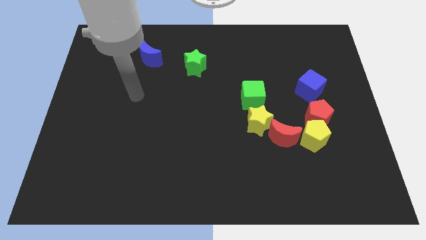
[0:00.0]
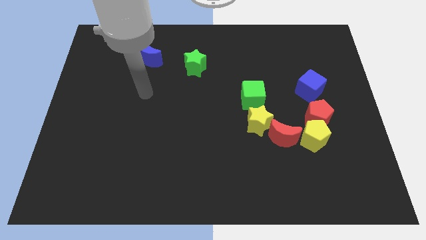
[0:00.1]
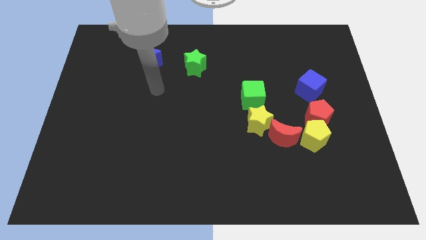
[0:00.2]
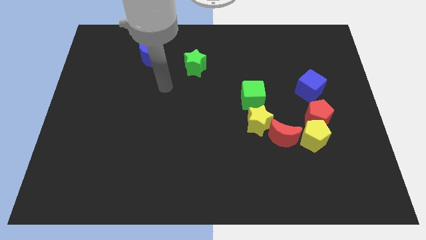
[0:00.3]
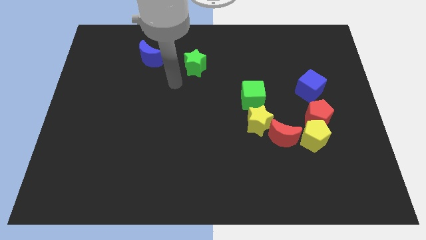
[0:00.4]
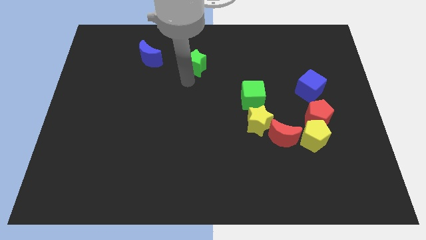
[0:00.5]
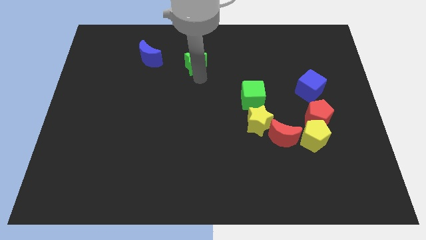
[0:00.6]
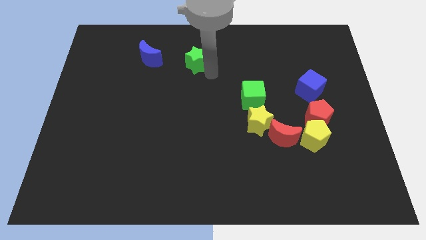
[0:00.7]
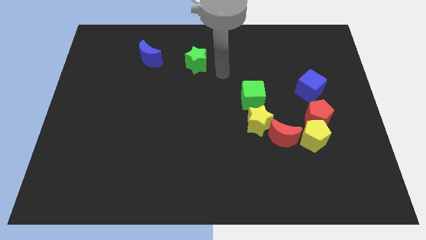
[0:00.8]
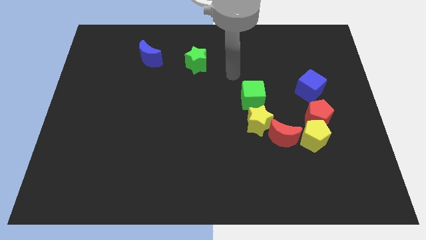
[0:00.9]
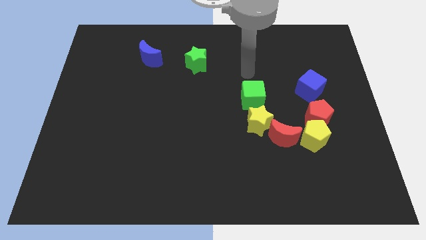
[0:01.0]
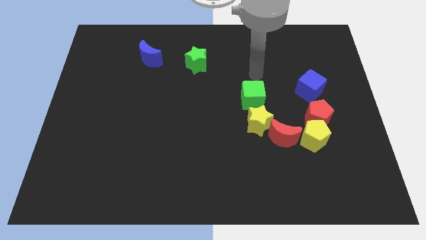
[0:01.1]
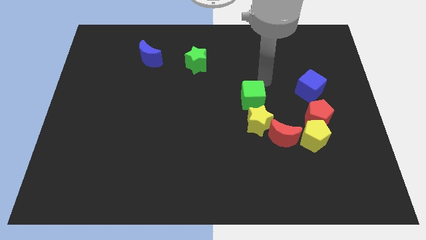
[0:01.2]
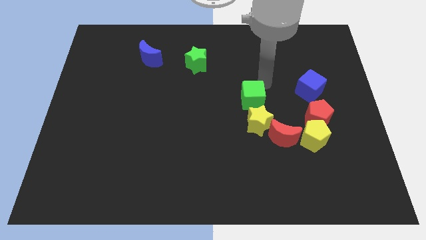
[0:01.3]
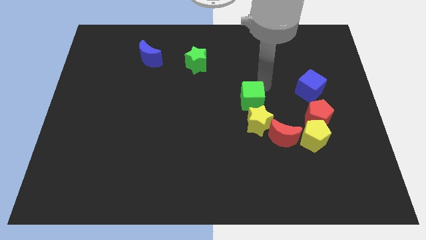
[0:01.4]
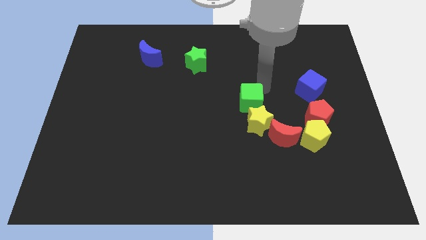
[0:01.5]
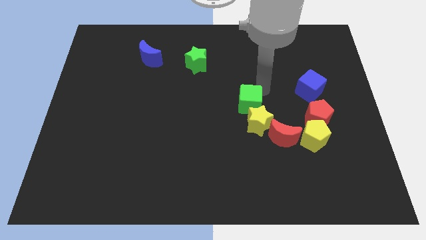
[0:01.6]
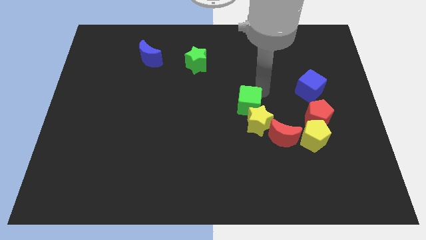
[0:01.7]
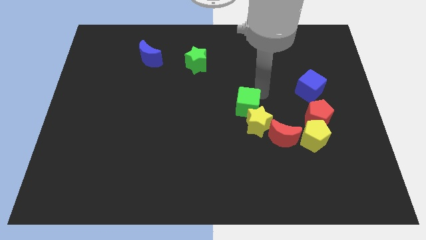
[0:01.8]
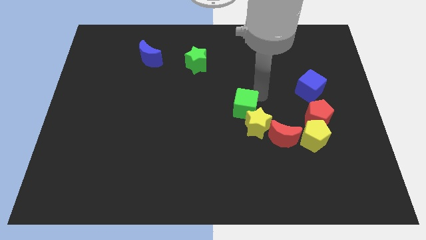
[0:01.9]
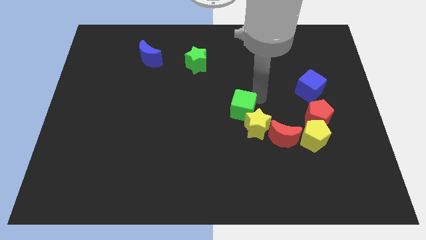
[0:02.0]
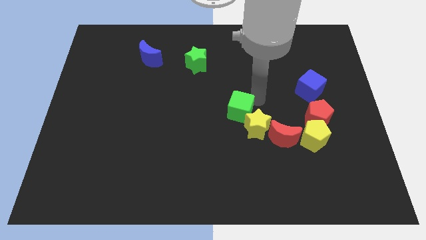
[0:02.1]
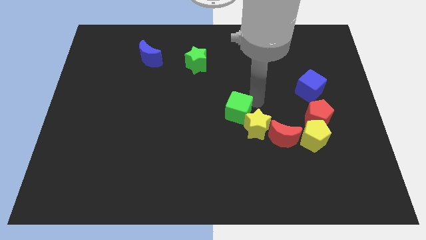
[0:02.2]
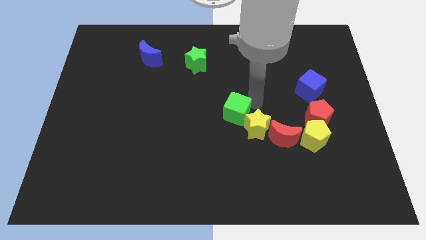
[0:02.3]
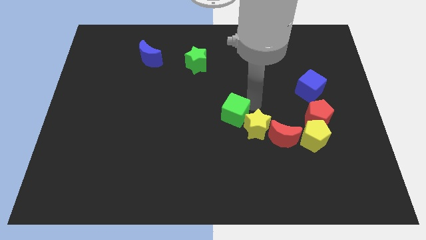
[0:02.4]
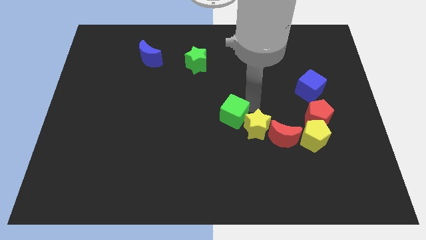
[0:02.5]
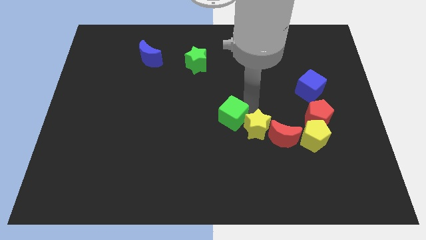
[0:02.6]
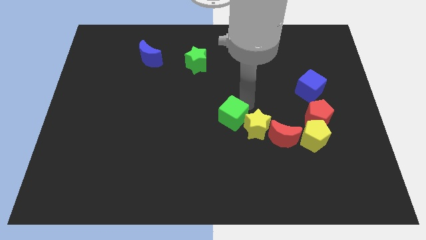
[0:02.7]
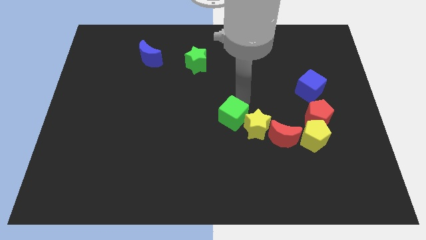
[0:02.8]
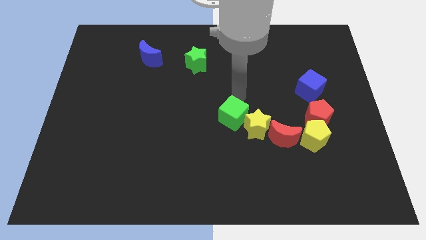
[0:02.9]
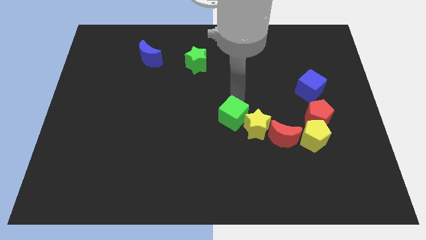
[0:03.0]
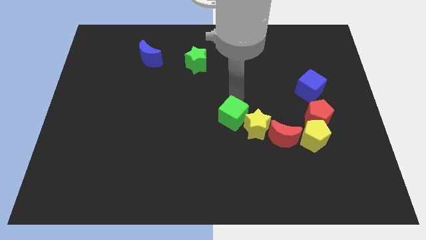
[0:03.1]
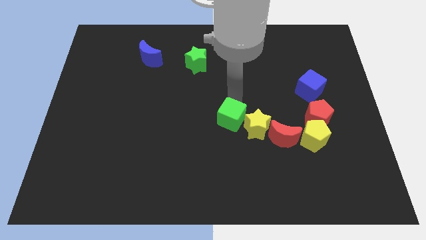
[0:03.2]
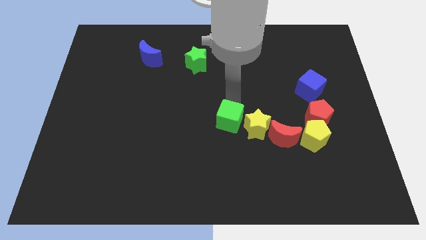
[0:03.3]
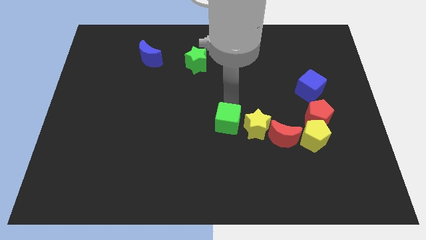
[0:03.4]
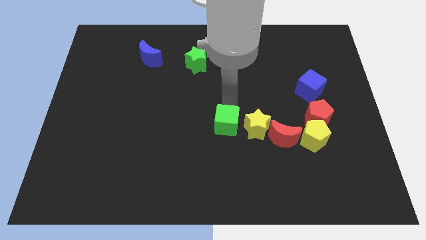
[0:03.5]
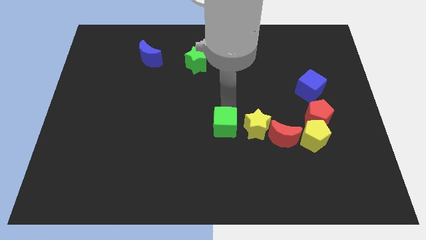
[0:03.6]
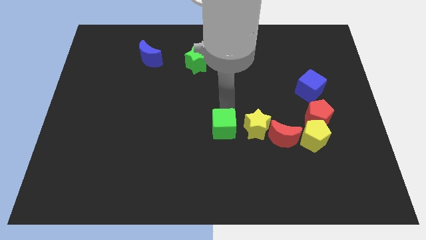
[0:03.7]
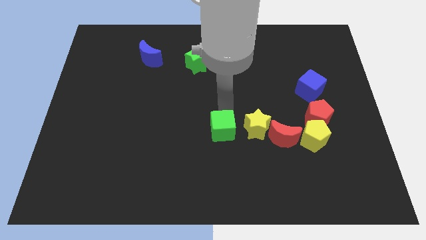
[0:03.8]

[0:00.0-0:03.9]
move the green cube a bit downwards

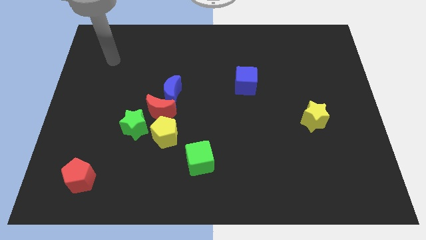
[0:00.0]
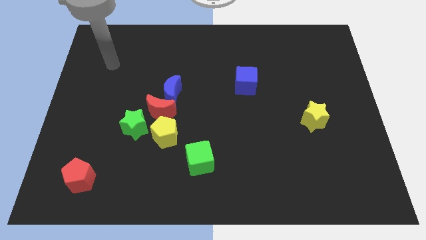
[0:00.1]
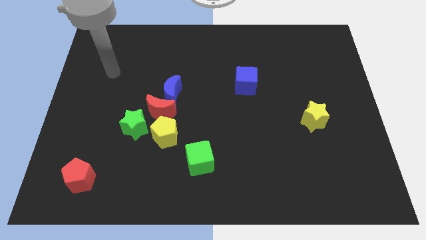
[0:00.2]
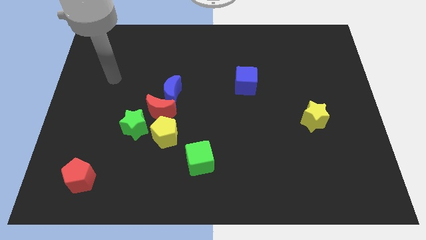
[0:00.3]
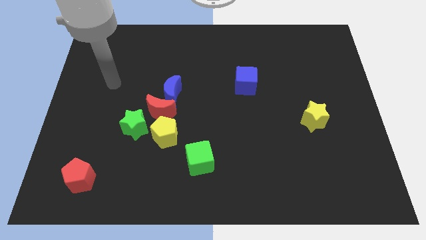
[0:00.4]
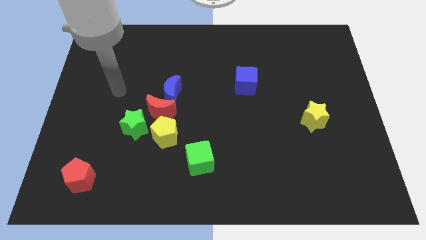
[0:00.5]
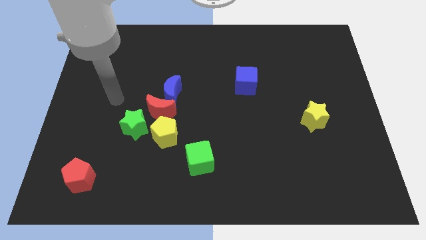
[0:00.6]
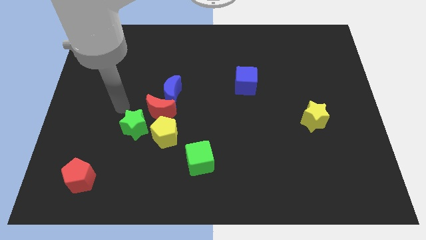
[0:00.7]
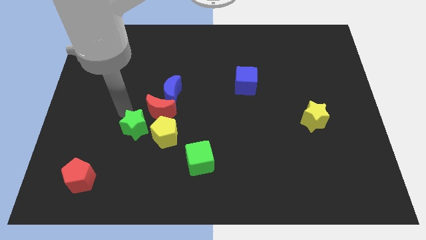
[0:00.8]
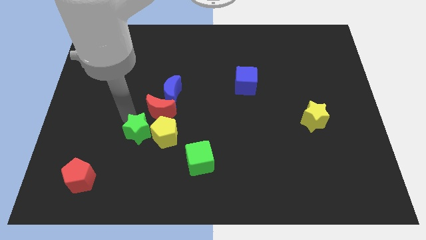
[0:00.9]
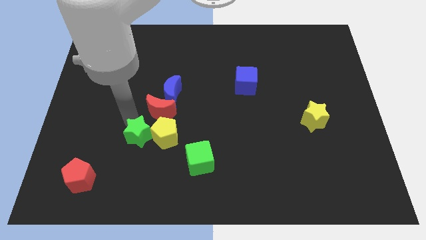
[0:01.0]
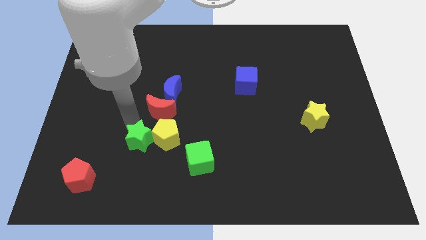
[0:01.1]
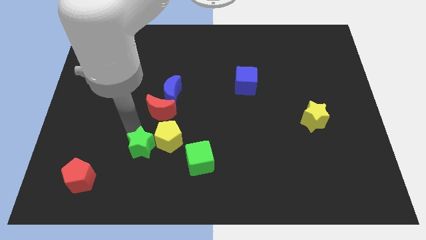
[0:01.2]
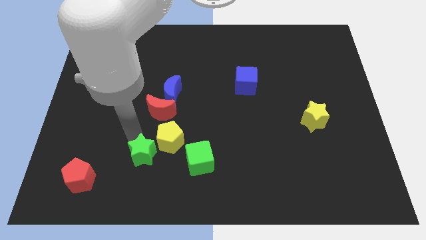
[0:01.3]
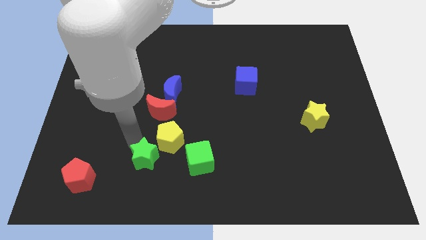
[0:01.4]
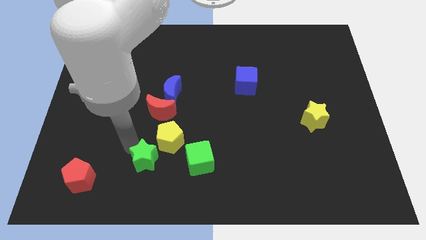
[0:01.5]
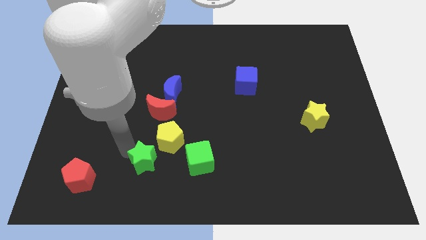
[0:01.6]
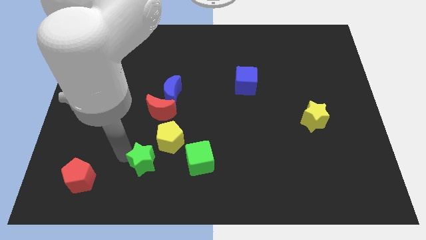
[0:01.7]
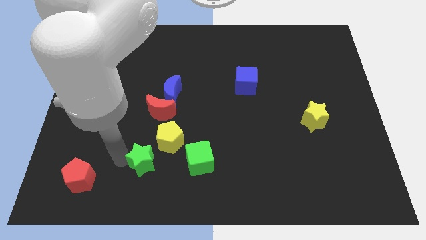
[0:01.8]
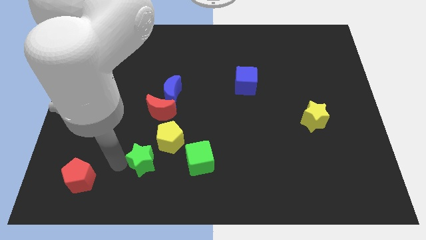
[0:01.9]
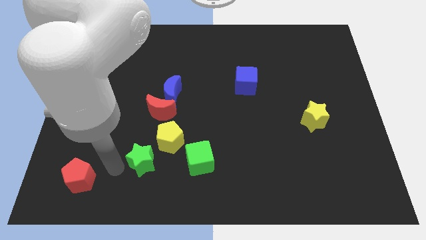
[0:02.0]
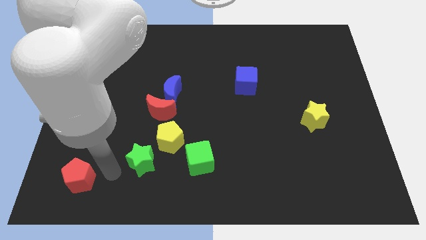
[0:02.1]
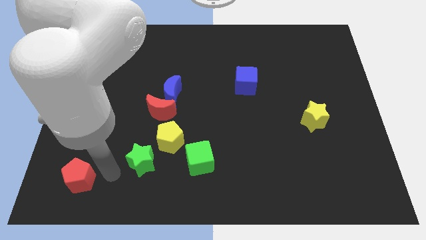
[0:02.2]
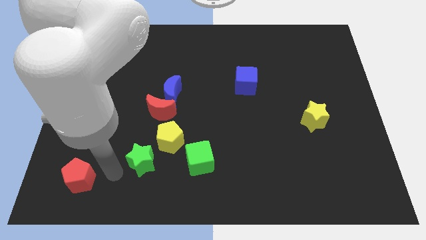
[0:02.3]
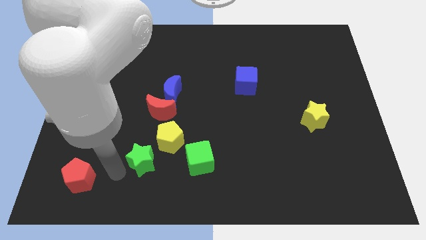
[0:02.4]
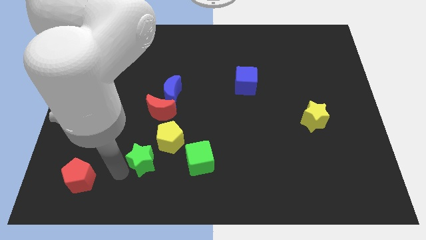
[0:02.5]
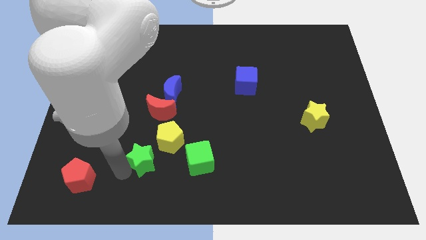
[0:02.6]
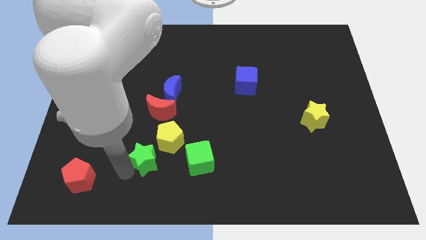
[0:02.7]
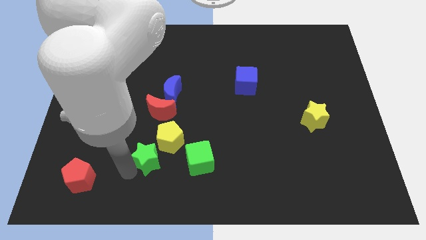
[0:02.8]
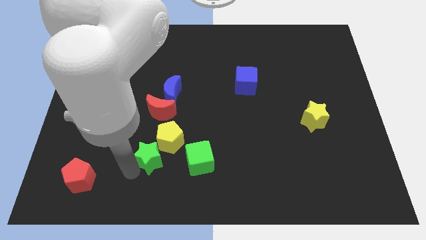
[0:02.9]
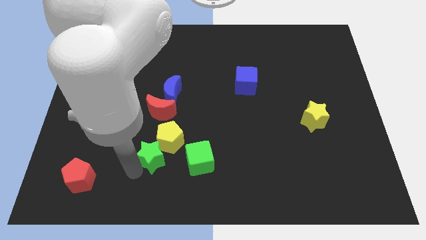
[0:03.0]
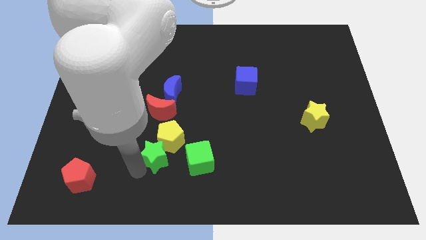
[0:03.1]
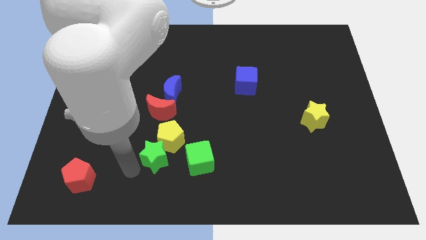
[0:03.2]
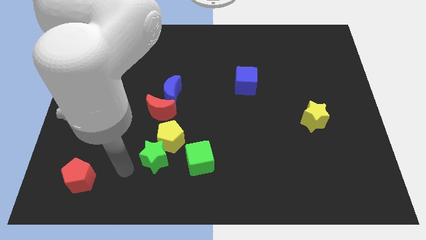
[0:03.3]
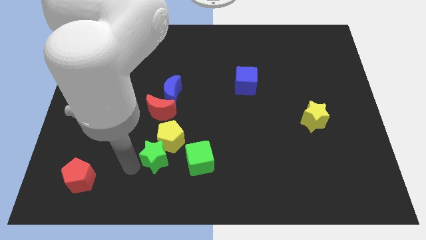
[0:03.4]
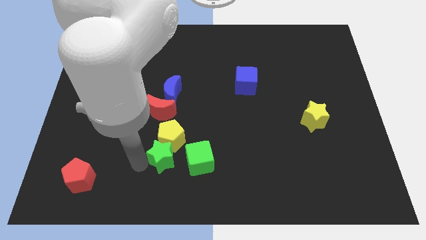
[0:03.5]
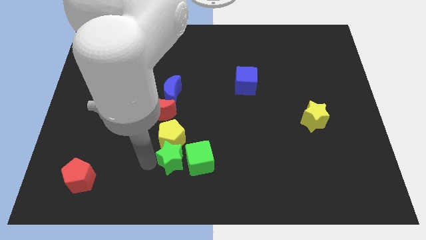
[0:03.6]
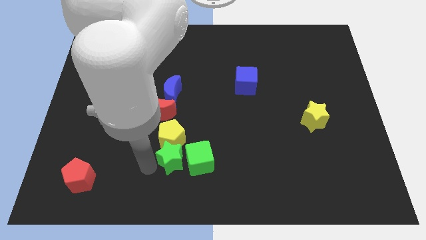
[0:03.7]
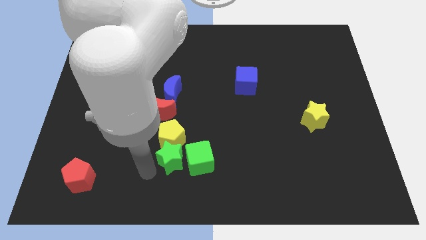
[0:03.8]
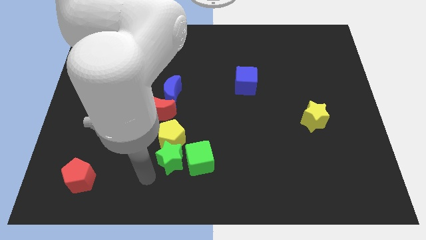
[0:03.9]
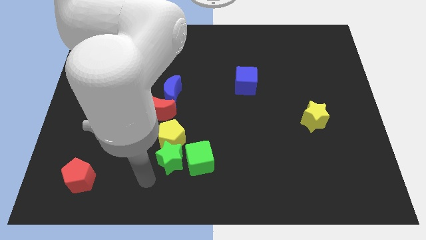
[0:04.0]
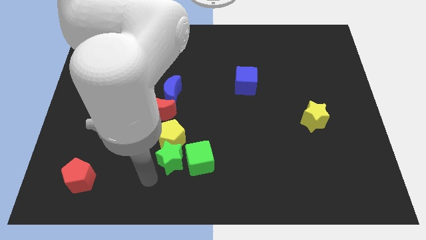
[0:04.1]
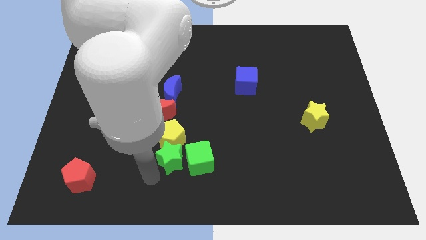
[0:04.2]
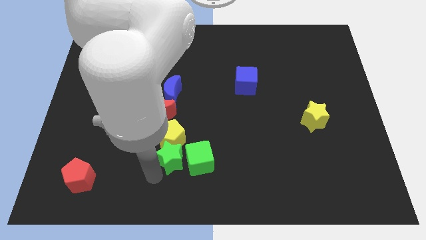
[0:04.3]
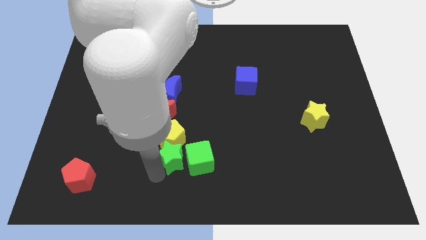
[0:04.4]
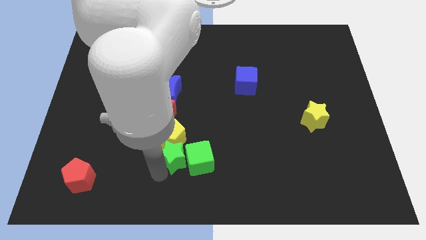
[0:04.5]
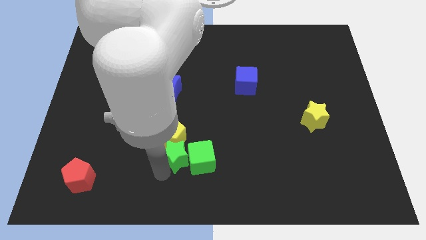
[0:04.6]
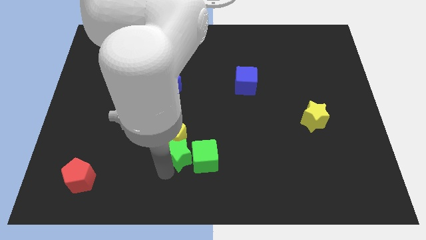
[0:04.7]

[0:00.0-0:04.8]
slide the green star to the right a bit
